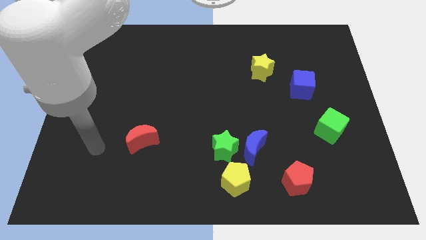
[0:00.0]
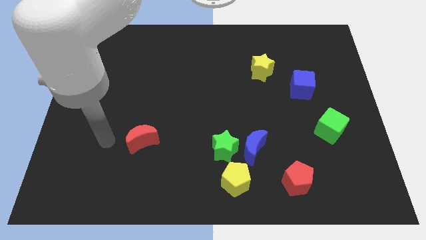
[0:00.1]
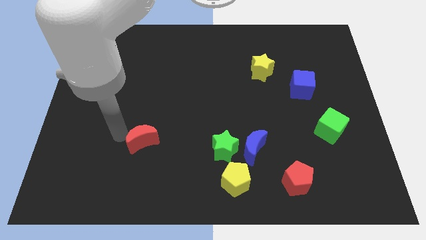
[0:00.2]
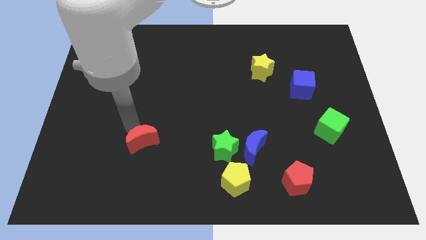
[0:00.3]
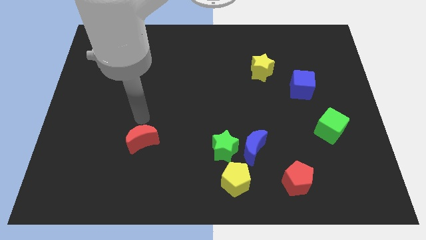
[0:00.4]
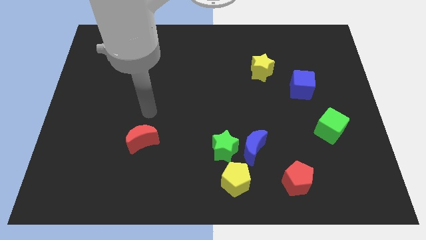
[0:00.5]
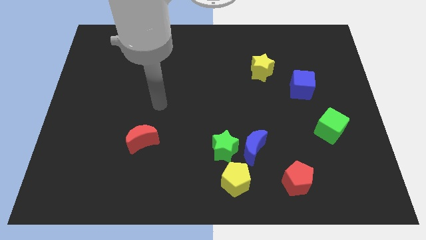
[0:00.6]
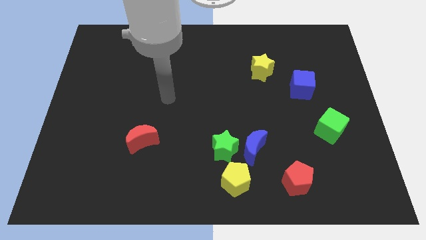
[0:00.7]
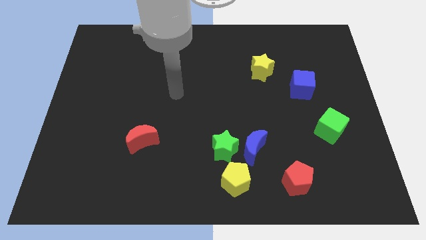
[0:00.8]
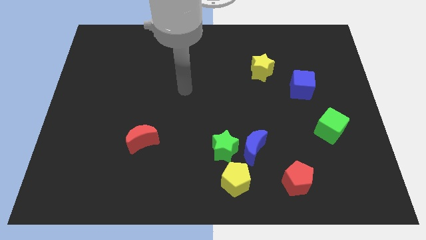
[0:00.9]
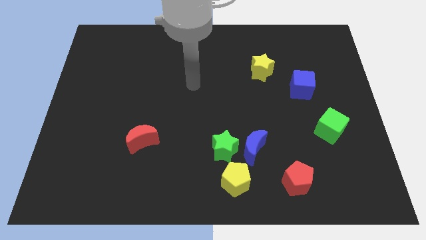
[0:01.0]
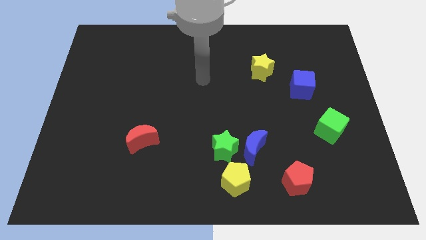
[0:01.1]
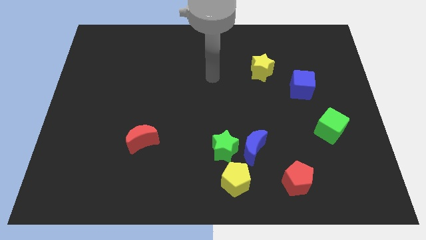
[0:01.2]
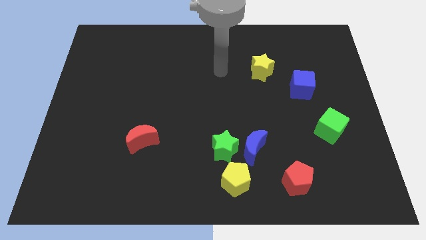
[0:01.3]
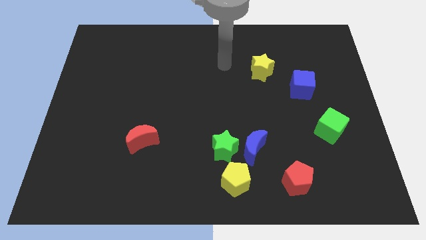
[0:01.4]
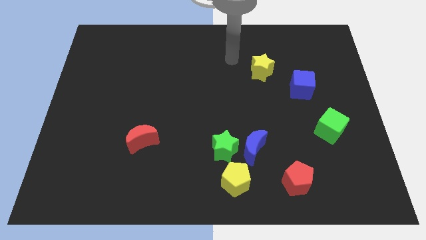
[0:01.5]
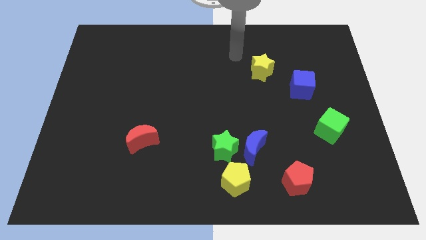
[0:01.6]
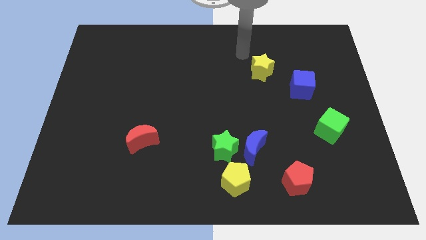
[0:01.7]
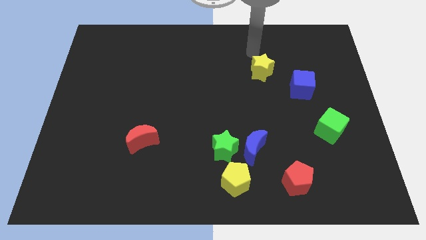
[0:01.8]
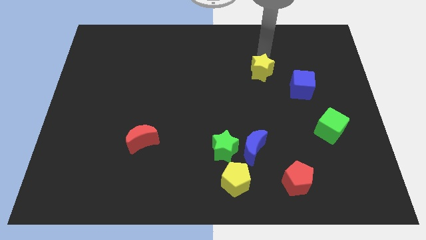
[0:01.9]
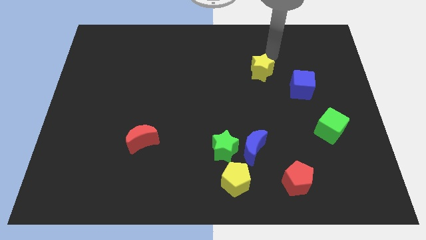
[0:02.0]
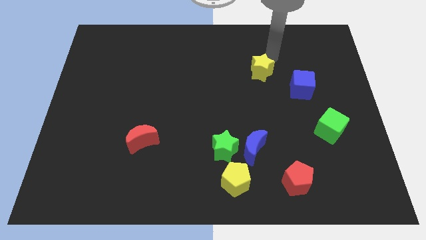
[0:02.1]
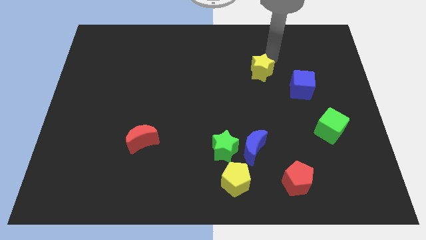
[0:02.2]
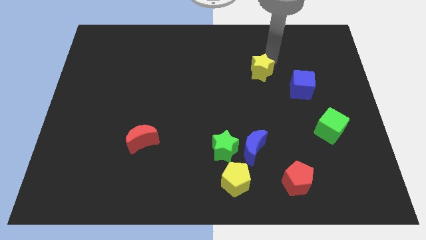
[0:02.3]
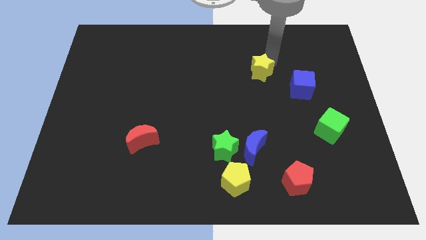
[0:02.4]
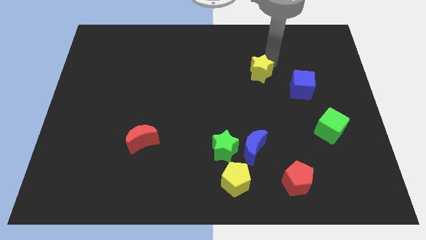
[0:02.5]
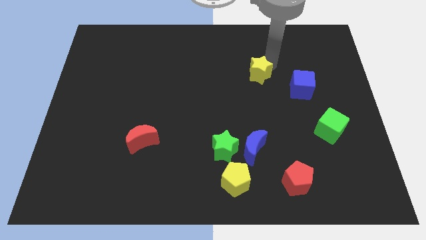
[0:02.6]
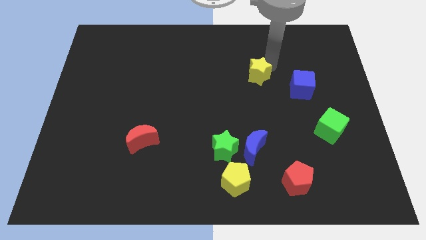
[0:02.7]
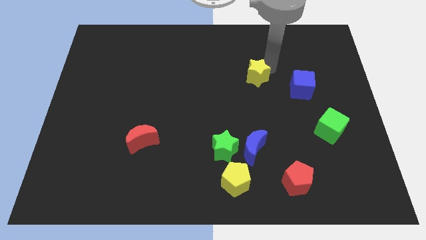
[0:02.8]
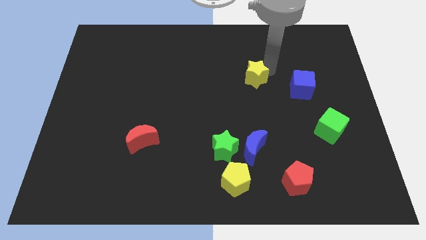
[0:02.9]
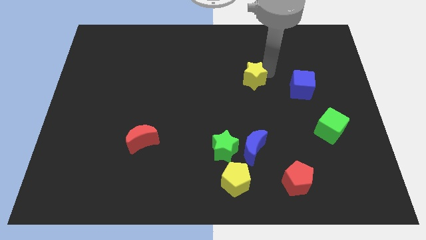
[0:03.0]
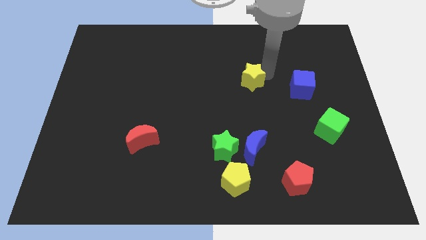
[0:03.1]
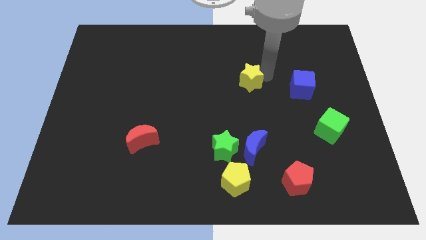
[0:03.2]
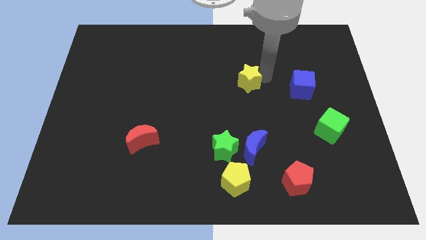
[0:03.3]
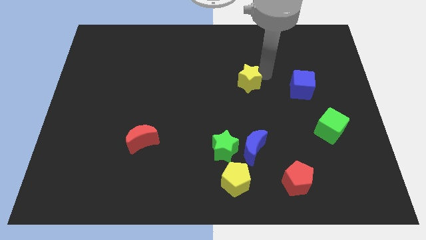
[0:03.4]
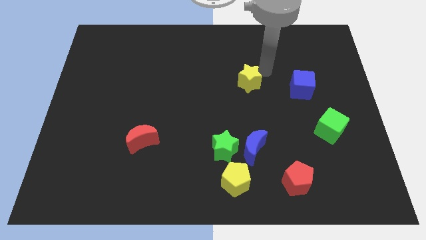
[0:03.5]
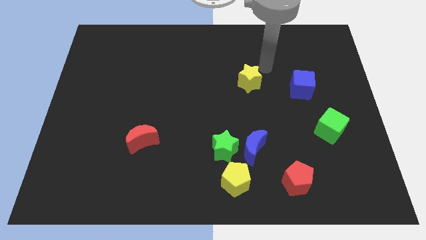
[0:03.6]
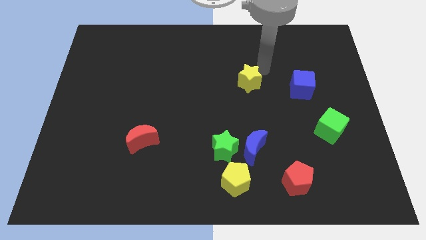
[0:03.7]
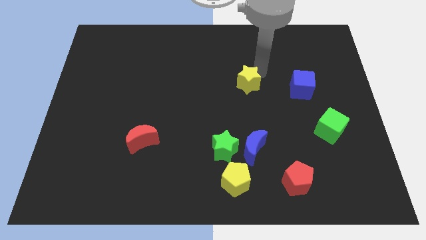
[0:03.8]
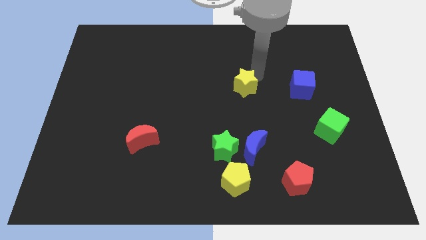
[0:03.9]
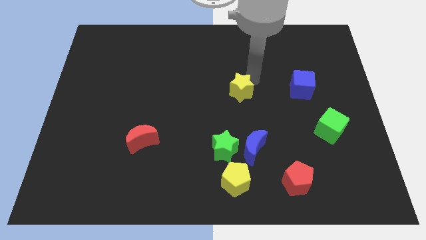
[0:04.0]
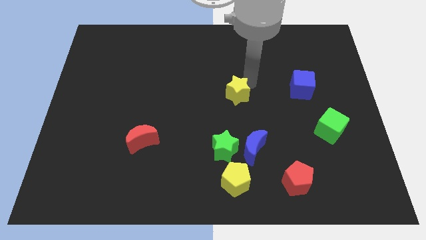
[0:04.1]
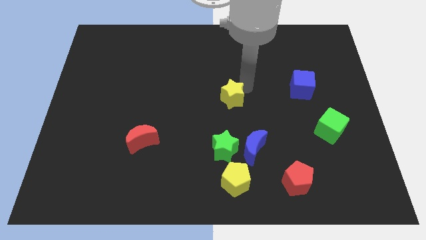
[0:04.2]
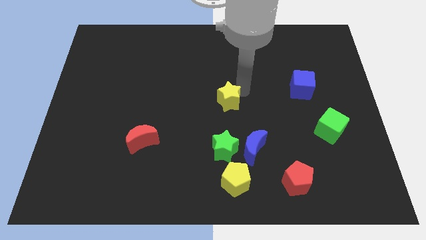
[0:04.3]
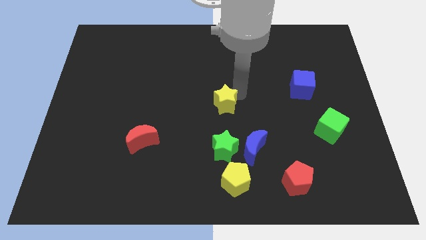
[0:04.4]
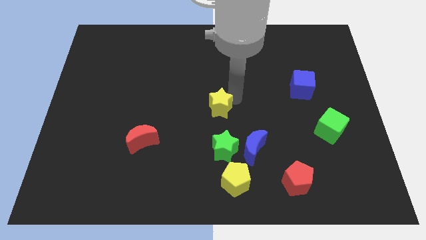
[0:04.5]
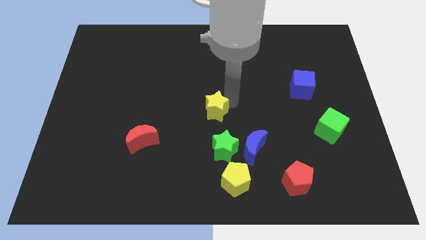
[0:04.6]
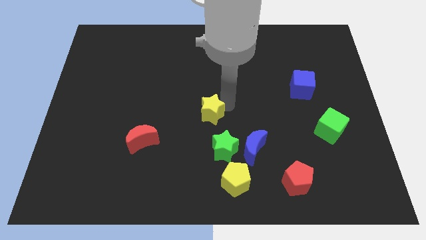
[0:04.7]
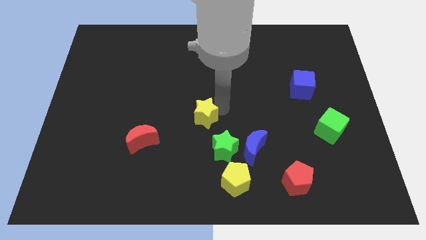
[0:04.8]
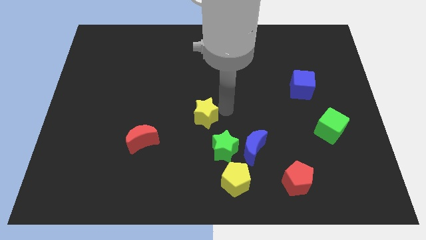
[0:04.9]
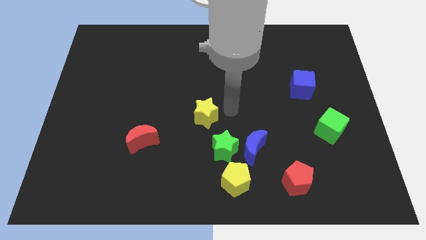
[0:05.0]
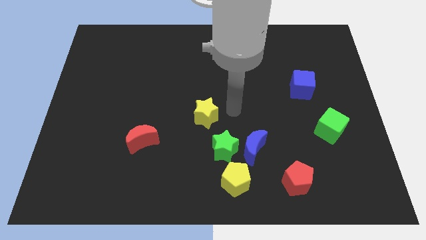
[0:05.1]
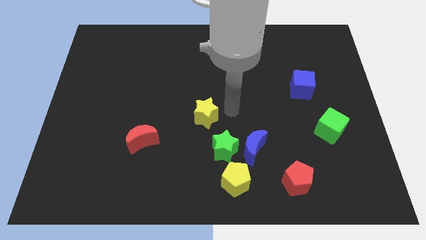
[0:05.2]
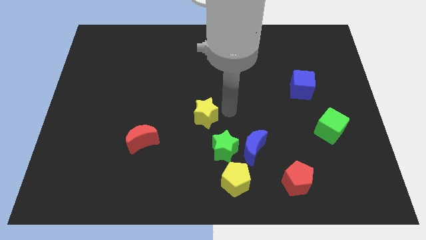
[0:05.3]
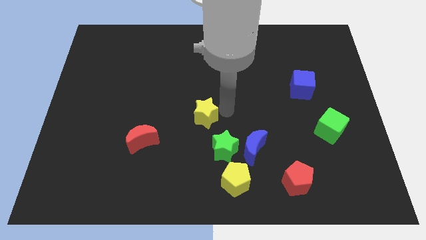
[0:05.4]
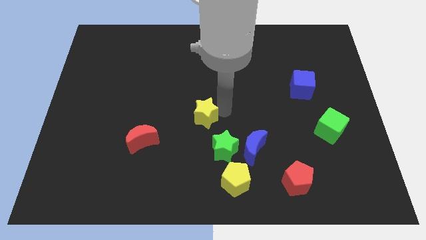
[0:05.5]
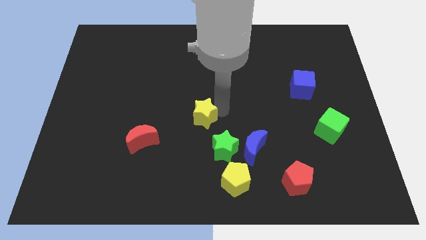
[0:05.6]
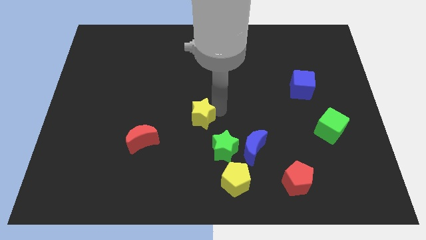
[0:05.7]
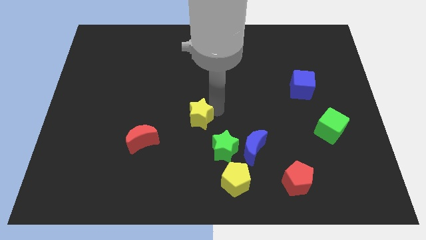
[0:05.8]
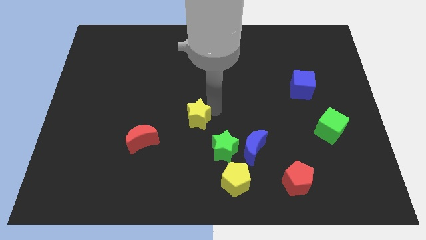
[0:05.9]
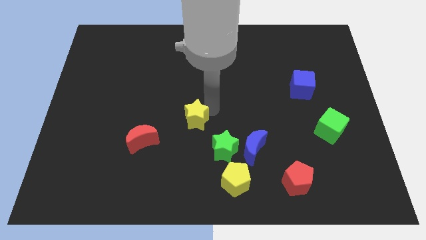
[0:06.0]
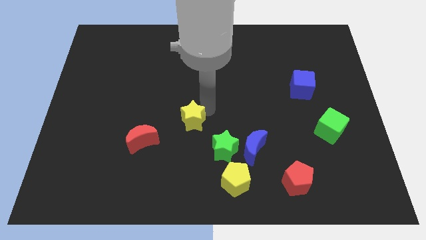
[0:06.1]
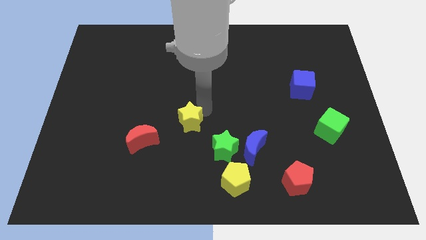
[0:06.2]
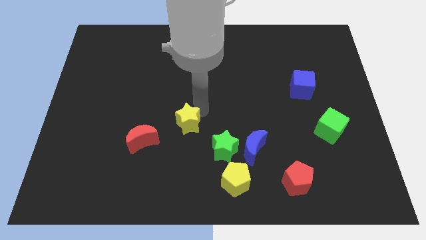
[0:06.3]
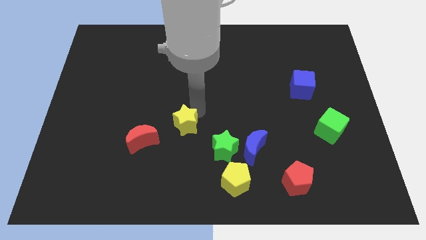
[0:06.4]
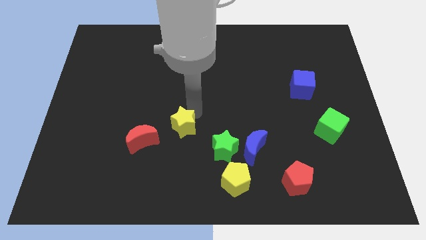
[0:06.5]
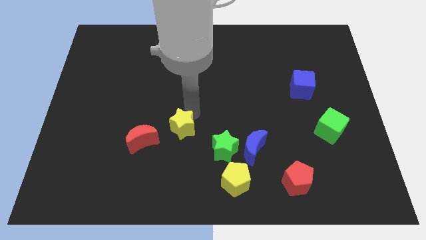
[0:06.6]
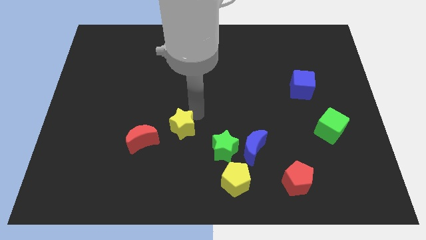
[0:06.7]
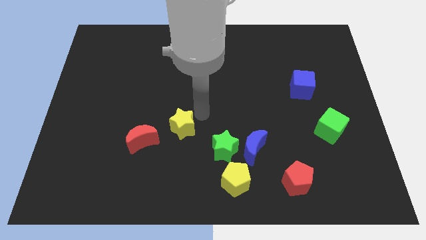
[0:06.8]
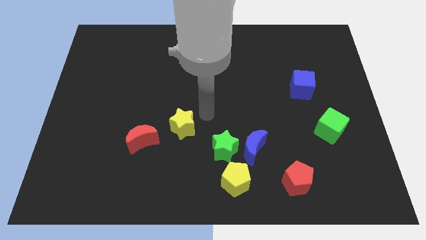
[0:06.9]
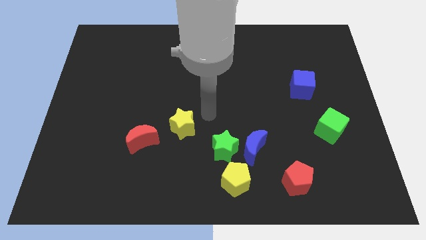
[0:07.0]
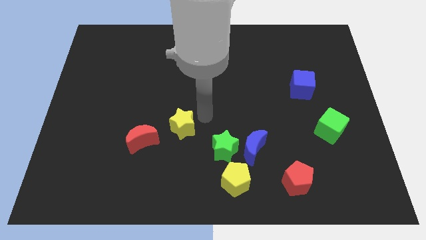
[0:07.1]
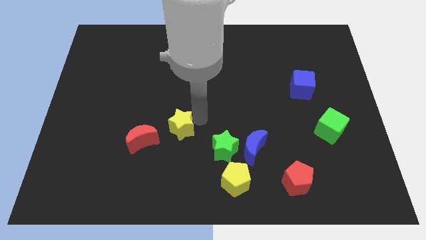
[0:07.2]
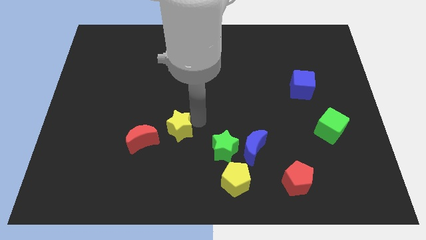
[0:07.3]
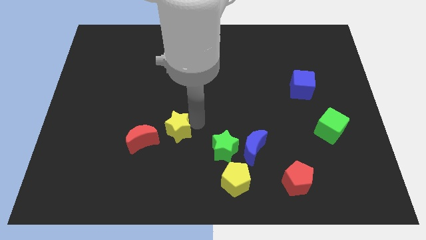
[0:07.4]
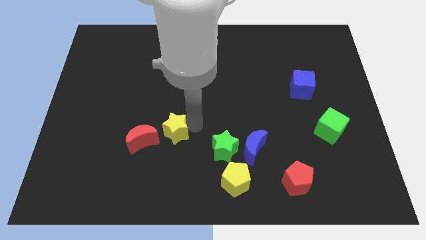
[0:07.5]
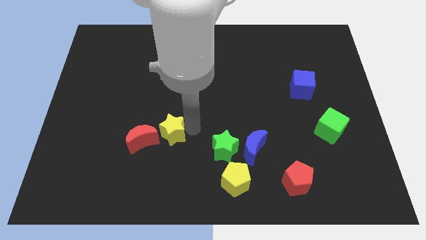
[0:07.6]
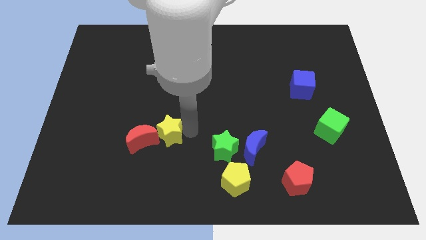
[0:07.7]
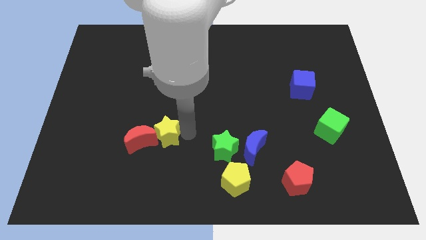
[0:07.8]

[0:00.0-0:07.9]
slide the yellow star close to the red moon

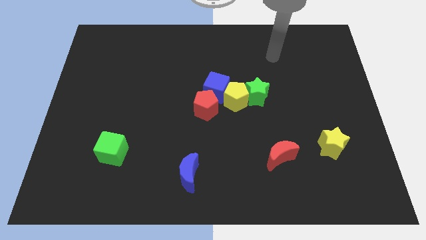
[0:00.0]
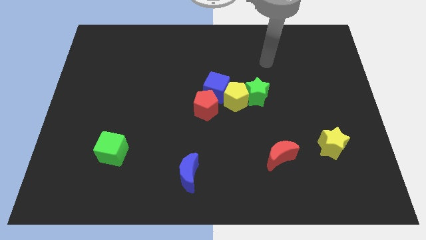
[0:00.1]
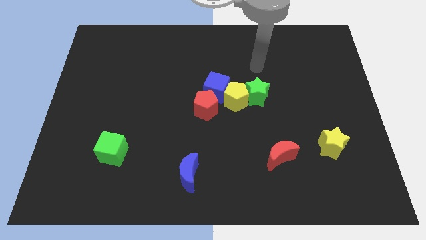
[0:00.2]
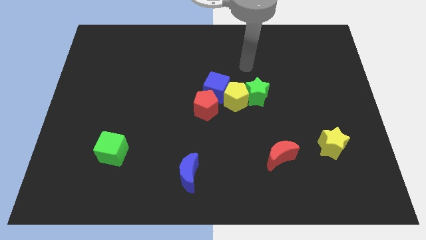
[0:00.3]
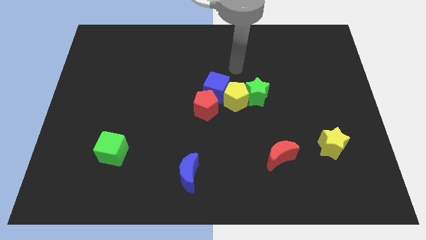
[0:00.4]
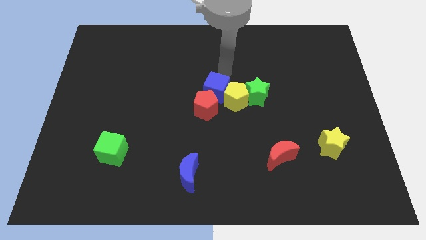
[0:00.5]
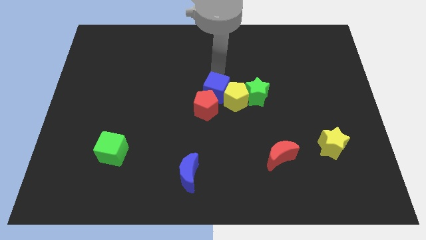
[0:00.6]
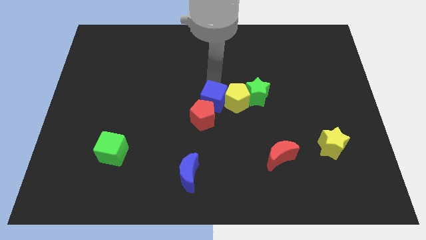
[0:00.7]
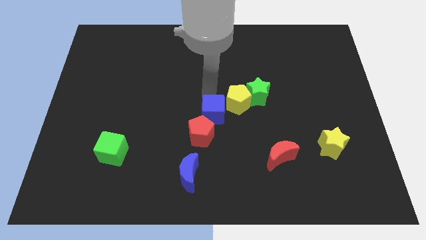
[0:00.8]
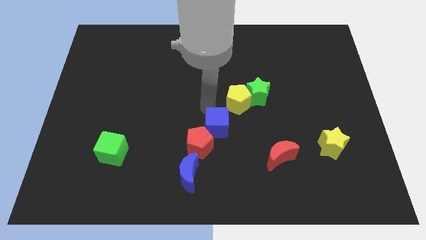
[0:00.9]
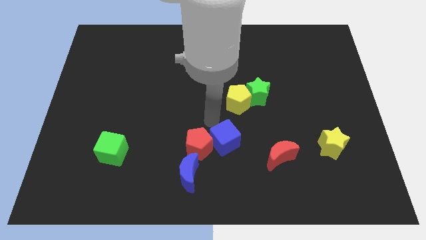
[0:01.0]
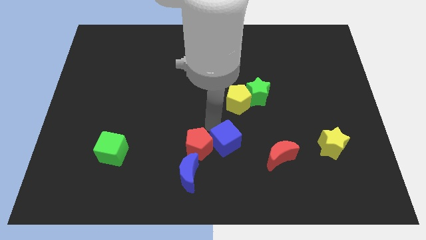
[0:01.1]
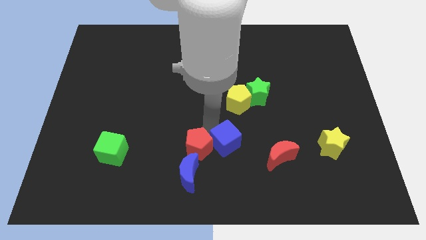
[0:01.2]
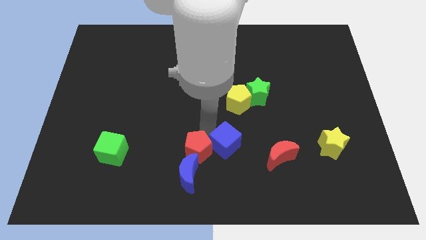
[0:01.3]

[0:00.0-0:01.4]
slide the red pentagon to the blue moon
